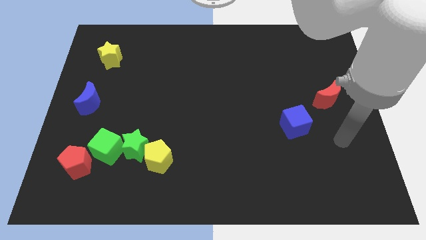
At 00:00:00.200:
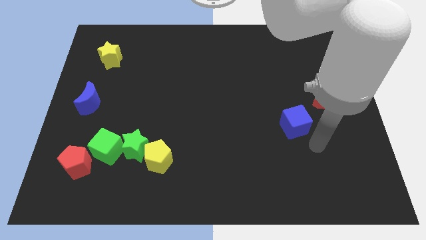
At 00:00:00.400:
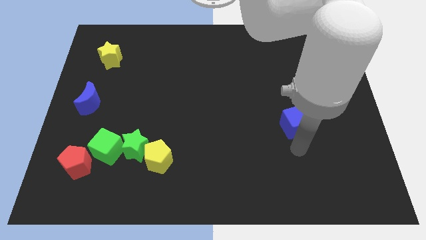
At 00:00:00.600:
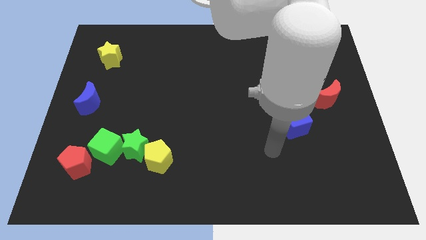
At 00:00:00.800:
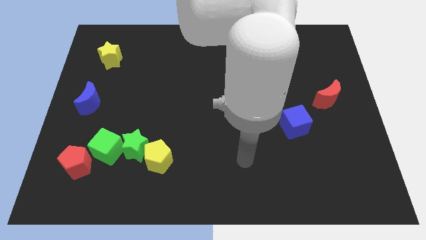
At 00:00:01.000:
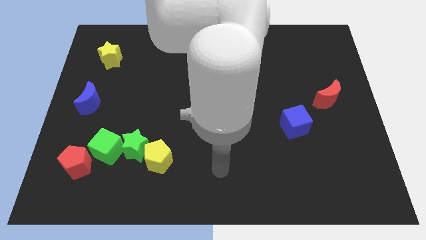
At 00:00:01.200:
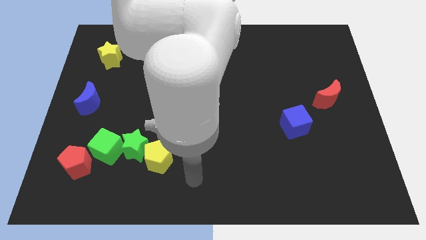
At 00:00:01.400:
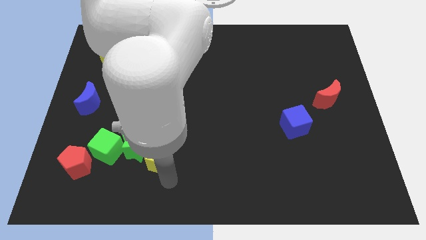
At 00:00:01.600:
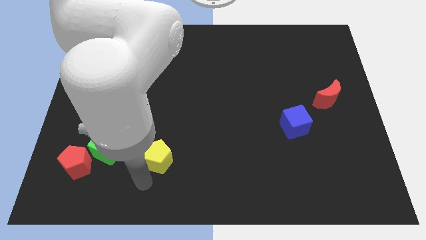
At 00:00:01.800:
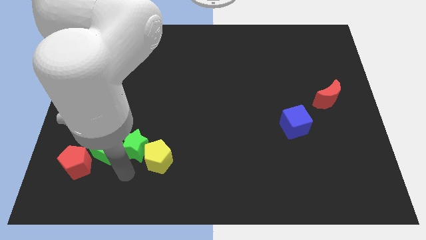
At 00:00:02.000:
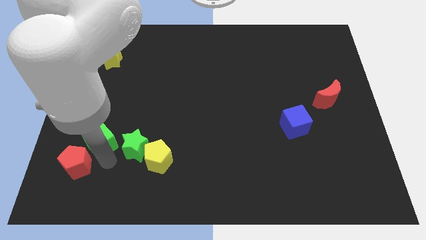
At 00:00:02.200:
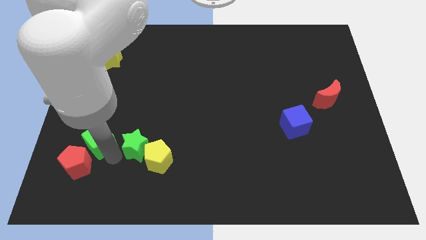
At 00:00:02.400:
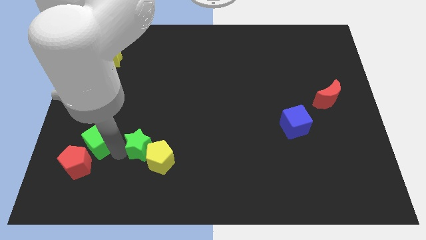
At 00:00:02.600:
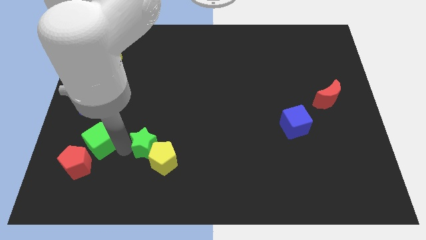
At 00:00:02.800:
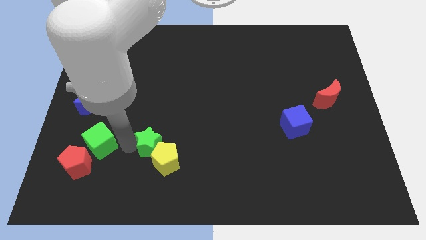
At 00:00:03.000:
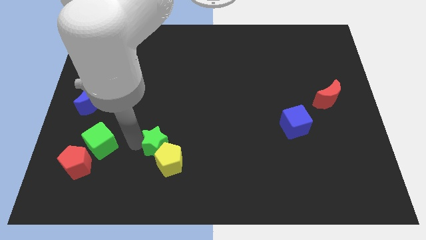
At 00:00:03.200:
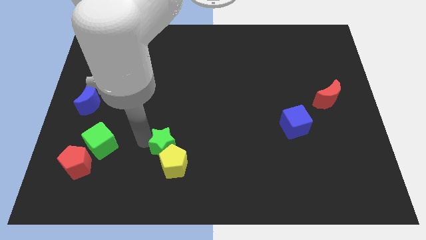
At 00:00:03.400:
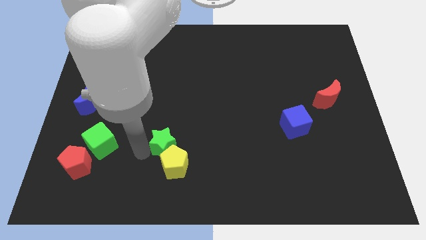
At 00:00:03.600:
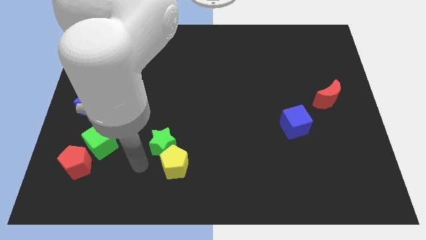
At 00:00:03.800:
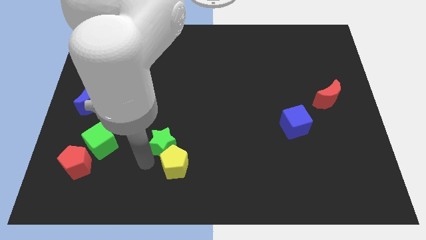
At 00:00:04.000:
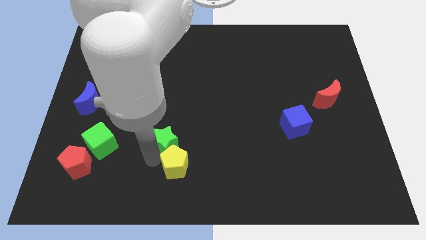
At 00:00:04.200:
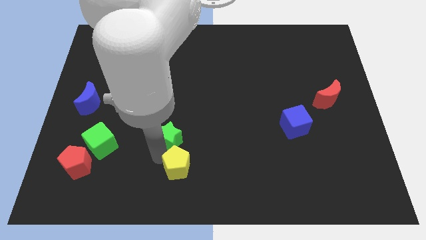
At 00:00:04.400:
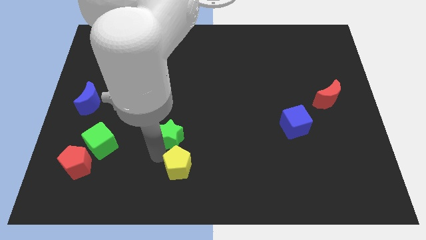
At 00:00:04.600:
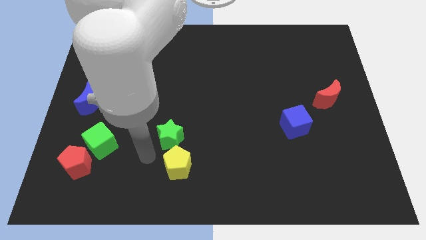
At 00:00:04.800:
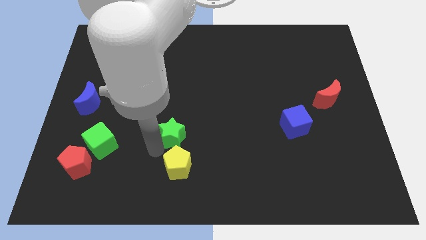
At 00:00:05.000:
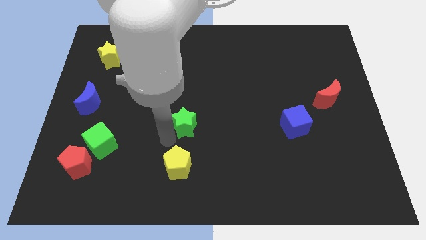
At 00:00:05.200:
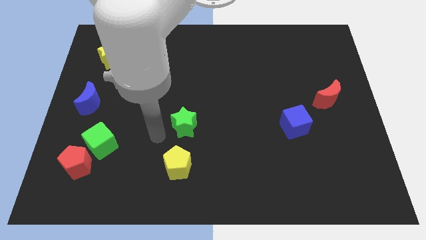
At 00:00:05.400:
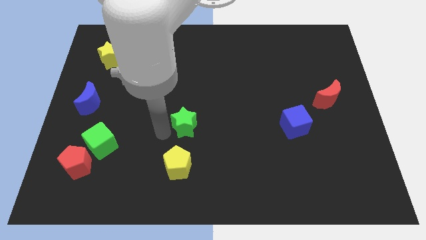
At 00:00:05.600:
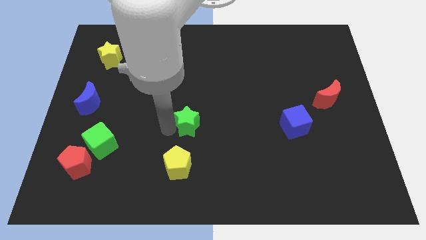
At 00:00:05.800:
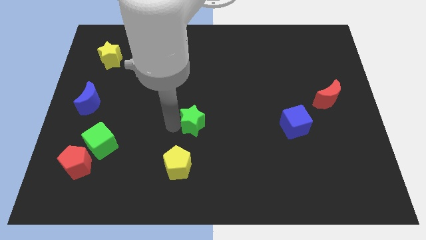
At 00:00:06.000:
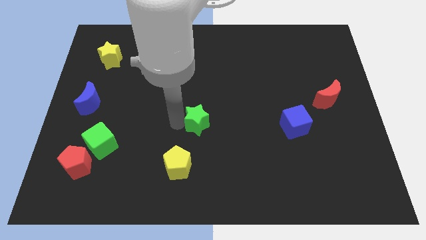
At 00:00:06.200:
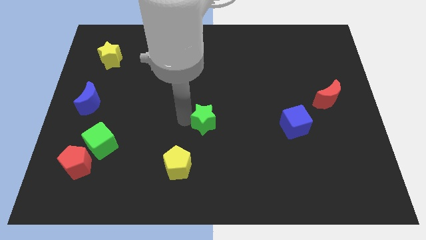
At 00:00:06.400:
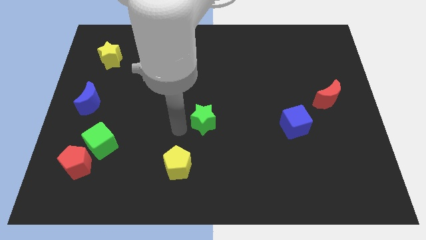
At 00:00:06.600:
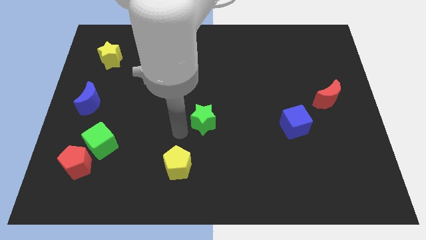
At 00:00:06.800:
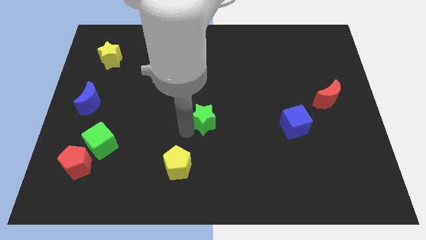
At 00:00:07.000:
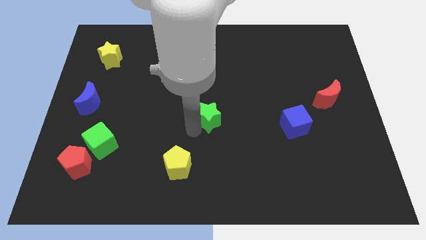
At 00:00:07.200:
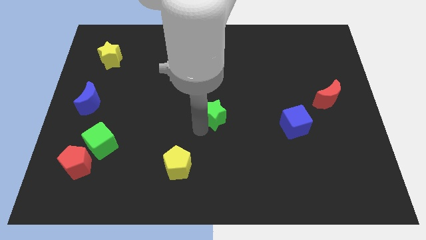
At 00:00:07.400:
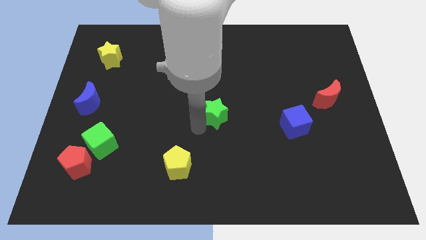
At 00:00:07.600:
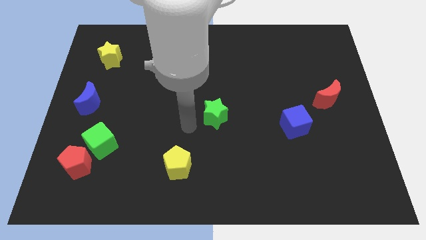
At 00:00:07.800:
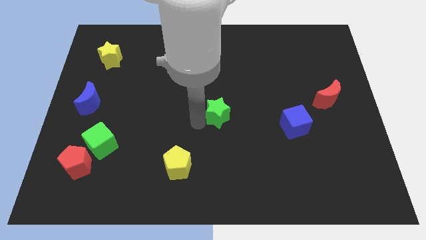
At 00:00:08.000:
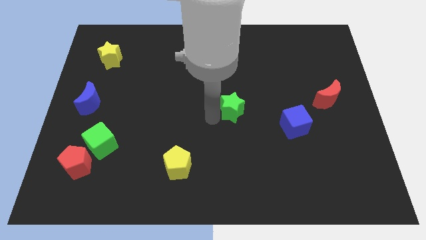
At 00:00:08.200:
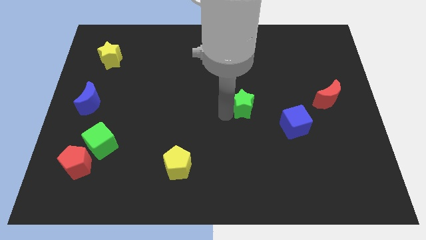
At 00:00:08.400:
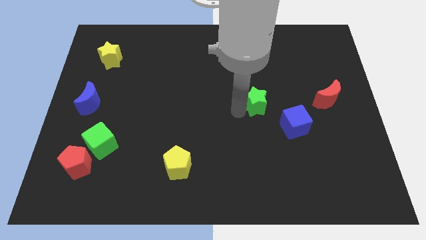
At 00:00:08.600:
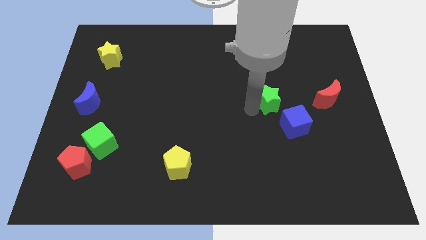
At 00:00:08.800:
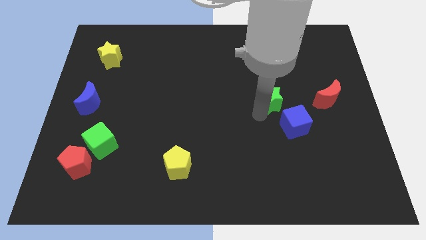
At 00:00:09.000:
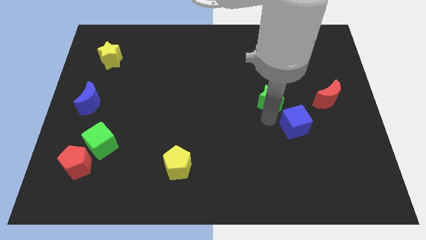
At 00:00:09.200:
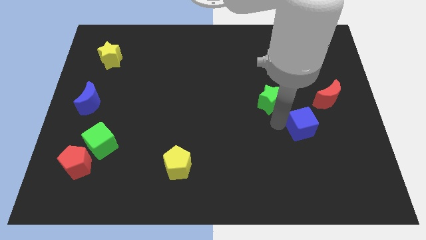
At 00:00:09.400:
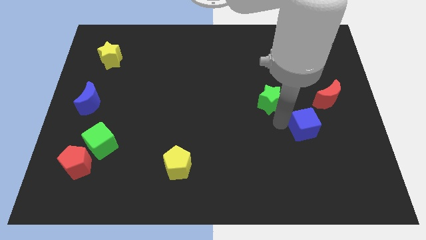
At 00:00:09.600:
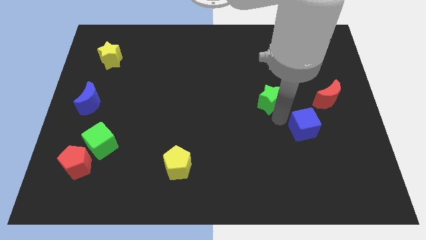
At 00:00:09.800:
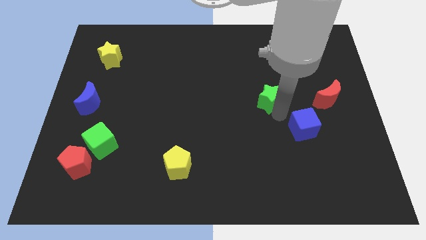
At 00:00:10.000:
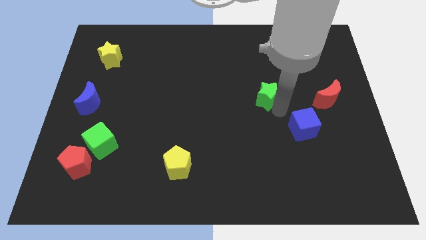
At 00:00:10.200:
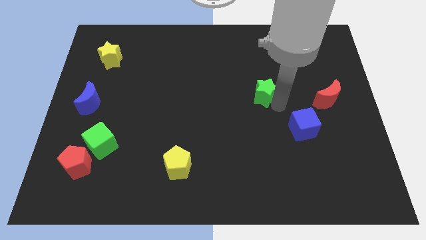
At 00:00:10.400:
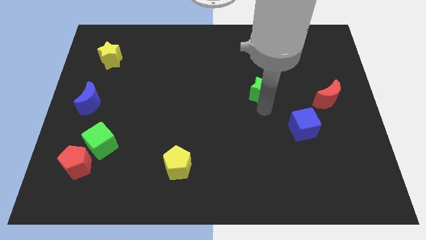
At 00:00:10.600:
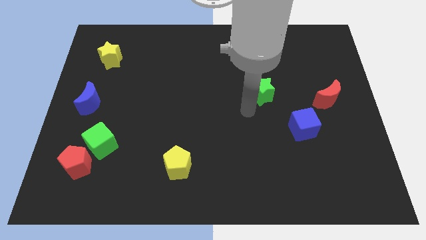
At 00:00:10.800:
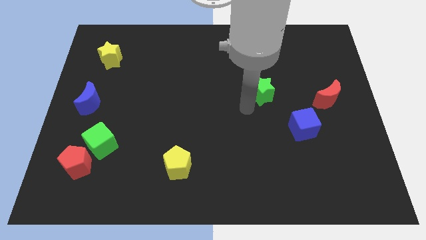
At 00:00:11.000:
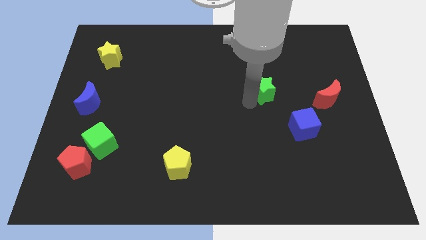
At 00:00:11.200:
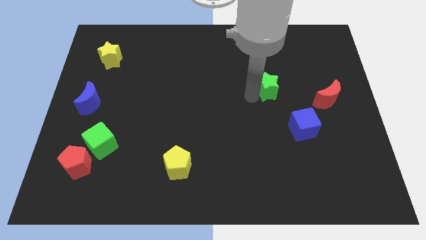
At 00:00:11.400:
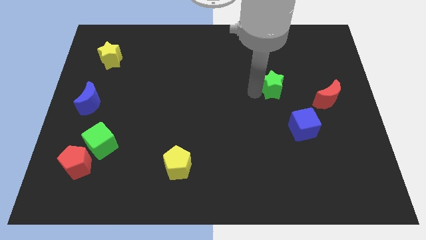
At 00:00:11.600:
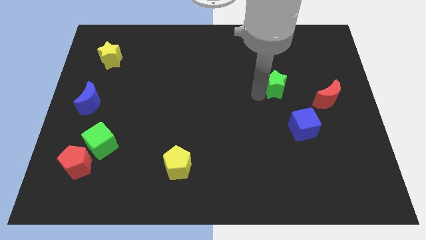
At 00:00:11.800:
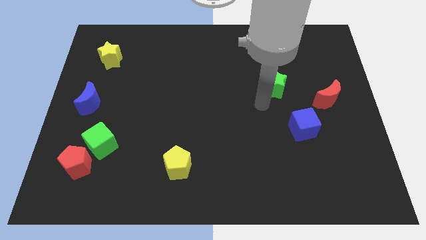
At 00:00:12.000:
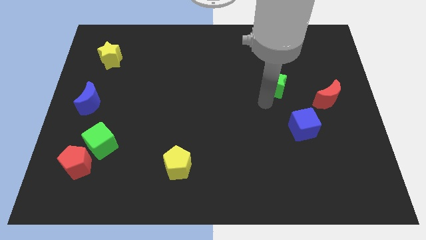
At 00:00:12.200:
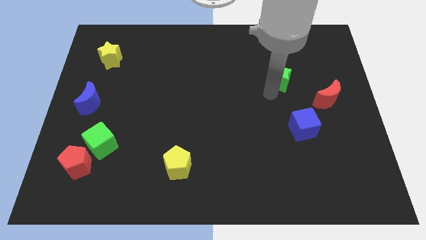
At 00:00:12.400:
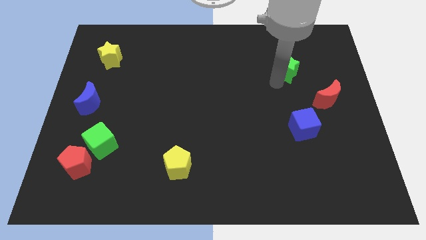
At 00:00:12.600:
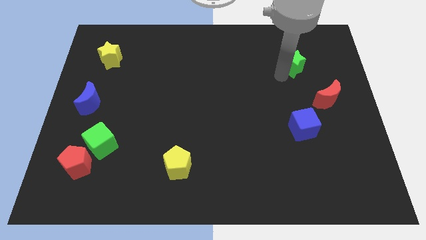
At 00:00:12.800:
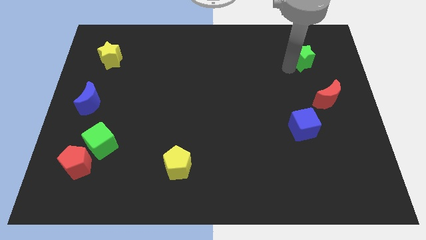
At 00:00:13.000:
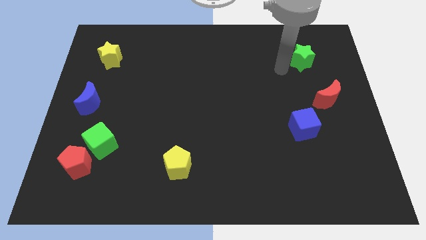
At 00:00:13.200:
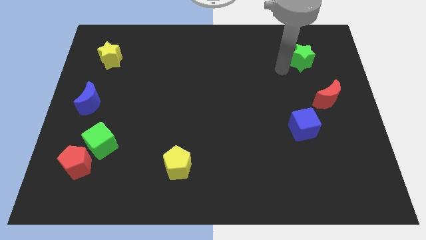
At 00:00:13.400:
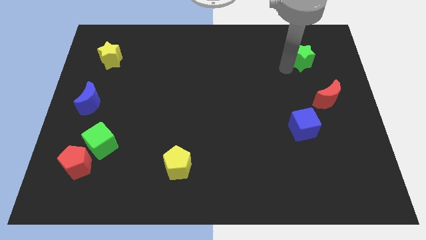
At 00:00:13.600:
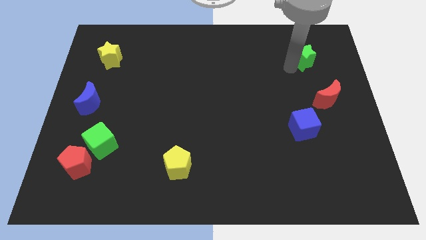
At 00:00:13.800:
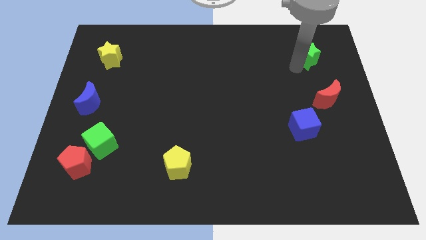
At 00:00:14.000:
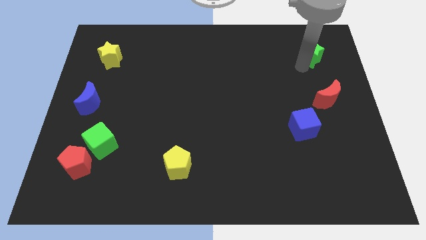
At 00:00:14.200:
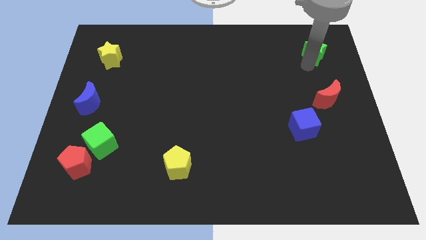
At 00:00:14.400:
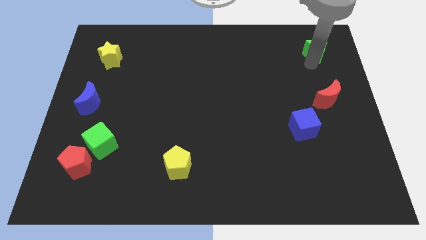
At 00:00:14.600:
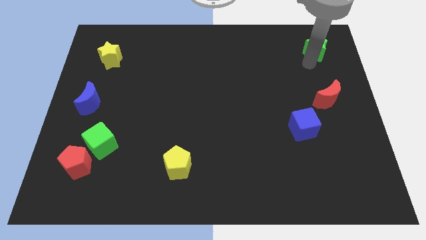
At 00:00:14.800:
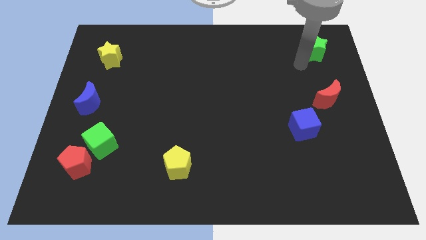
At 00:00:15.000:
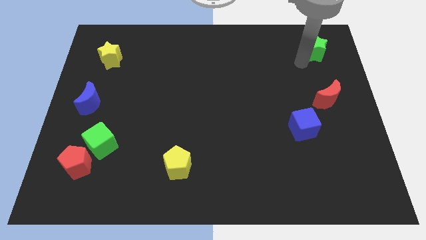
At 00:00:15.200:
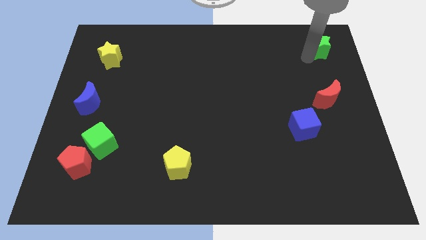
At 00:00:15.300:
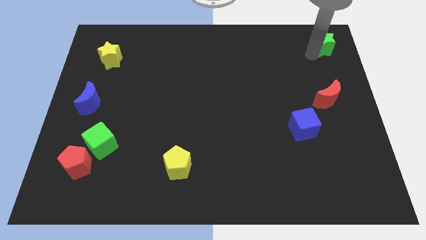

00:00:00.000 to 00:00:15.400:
move the green star to the upper right corner
